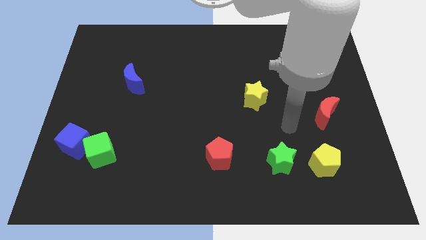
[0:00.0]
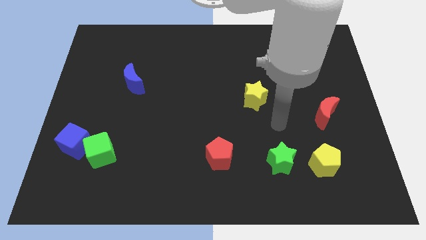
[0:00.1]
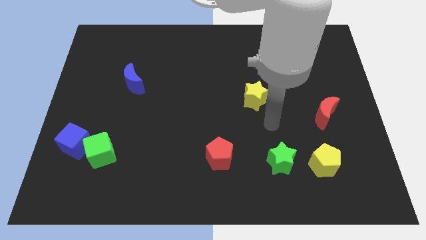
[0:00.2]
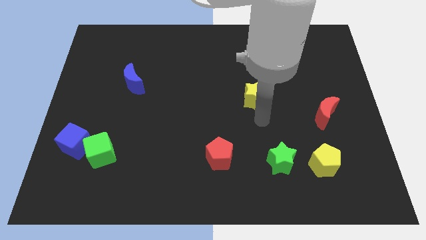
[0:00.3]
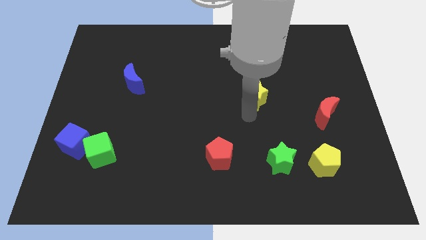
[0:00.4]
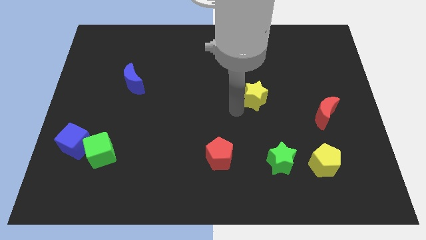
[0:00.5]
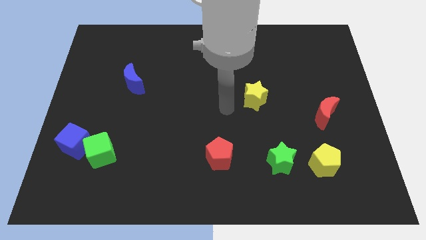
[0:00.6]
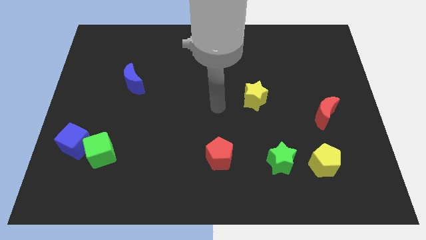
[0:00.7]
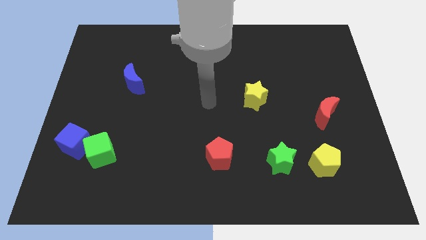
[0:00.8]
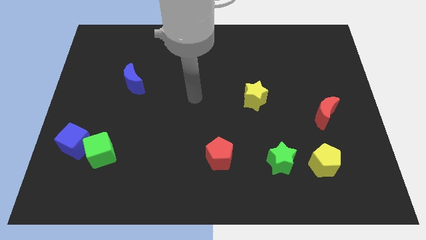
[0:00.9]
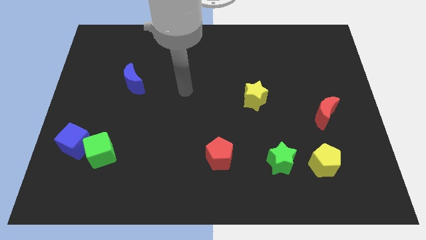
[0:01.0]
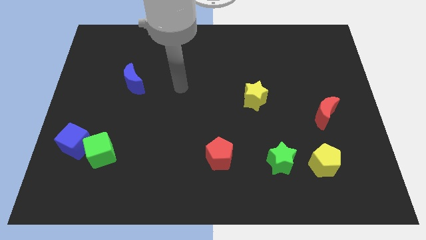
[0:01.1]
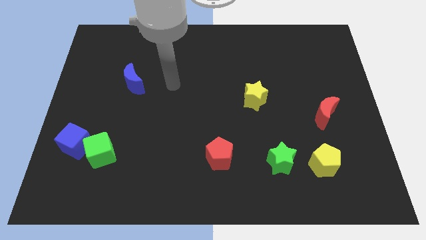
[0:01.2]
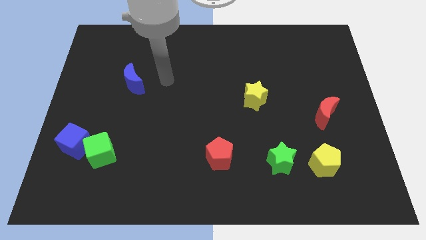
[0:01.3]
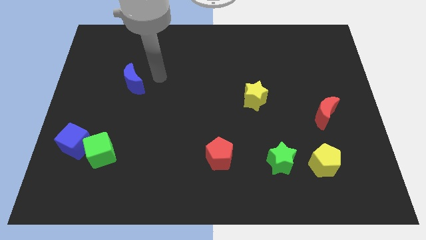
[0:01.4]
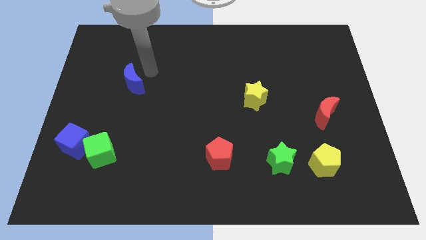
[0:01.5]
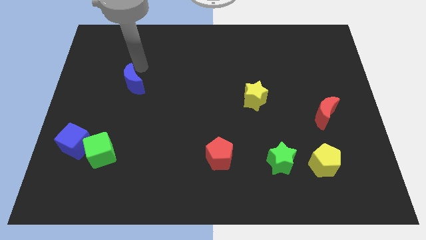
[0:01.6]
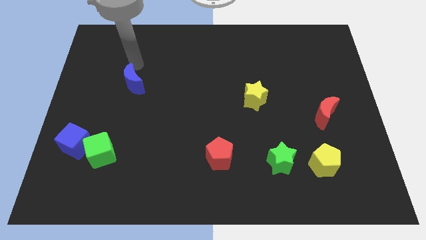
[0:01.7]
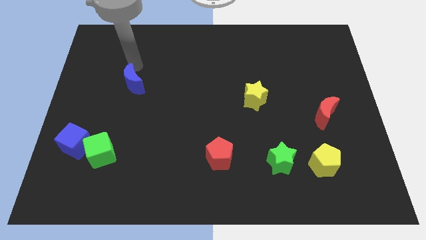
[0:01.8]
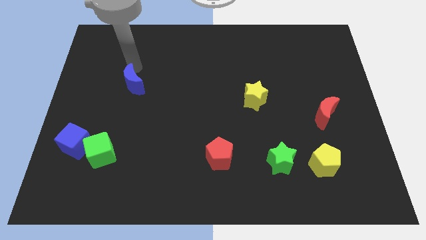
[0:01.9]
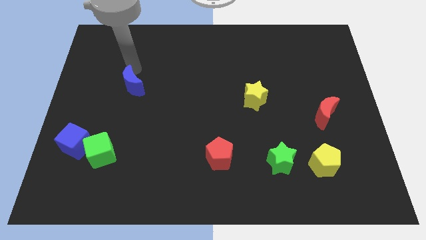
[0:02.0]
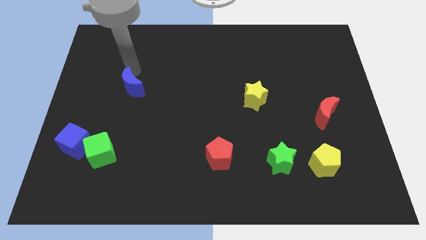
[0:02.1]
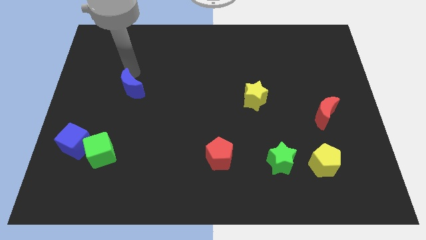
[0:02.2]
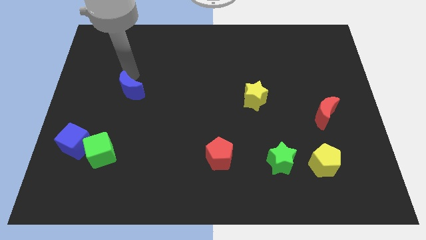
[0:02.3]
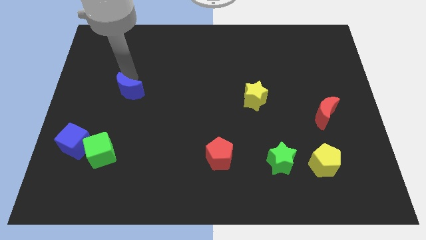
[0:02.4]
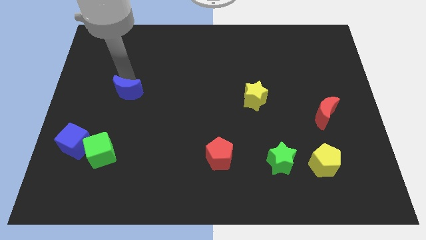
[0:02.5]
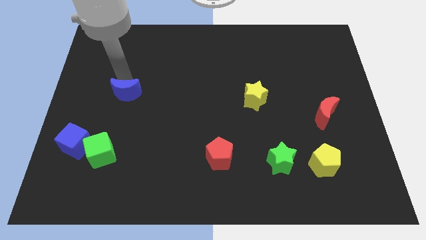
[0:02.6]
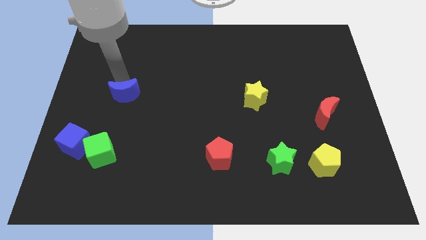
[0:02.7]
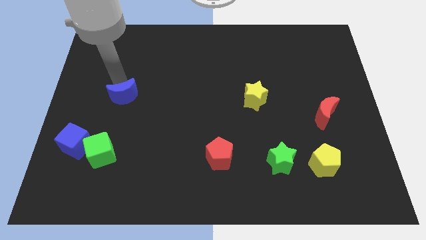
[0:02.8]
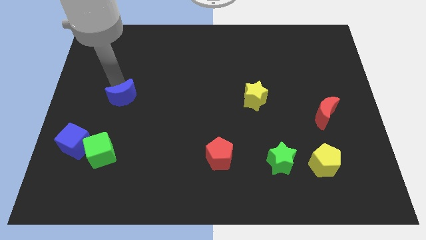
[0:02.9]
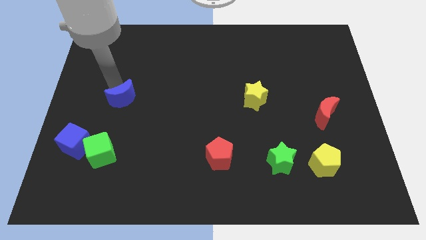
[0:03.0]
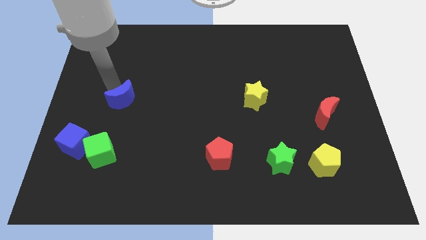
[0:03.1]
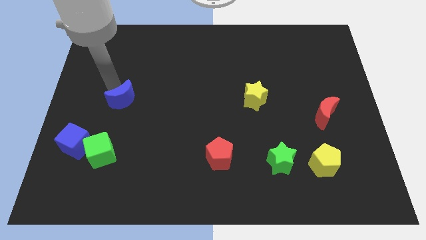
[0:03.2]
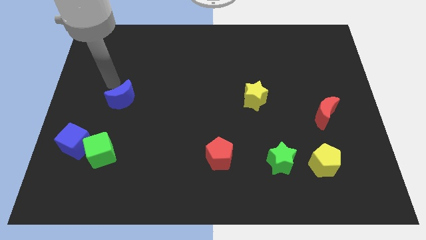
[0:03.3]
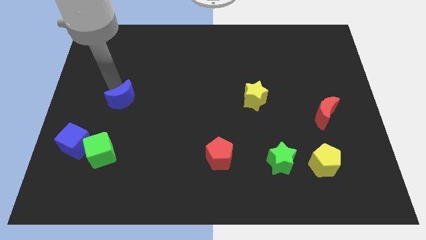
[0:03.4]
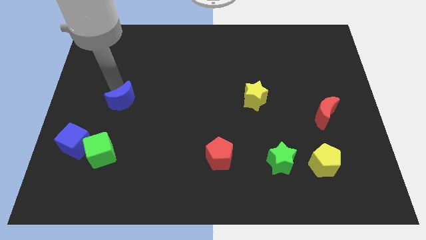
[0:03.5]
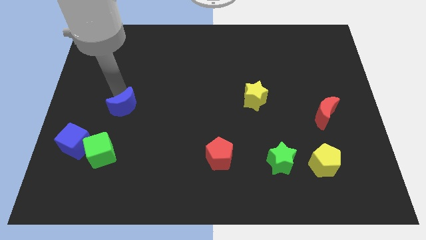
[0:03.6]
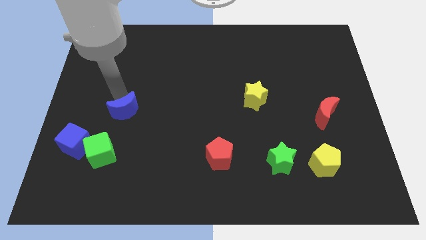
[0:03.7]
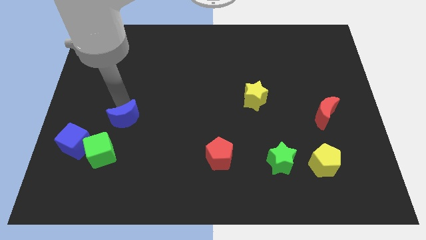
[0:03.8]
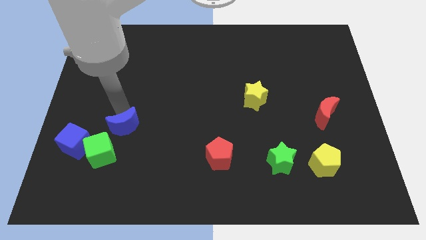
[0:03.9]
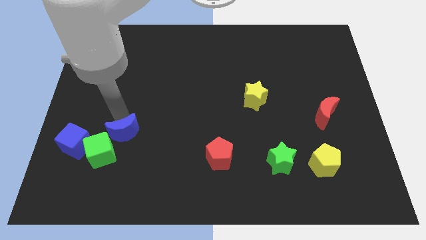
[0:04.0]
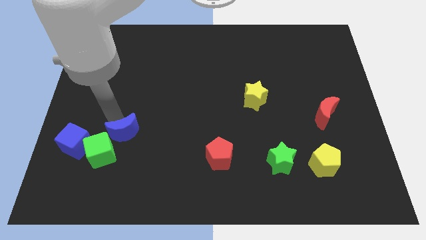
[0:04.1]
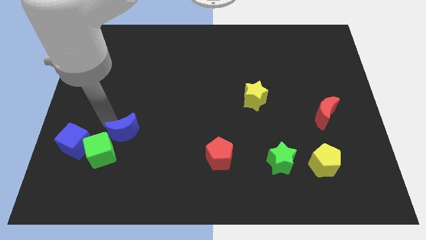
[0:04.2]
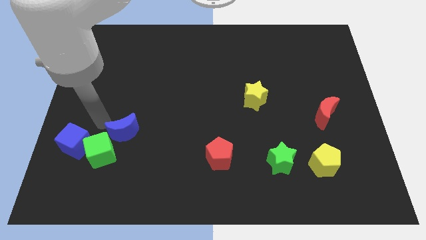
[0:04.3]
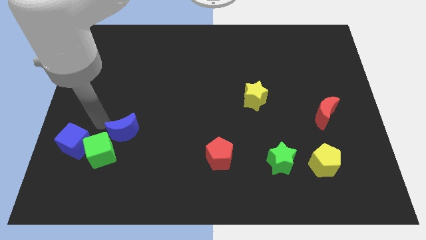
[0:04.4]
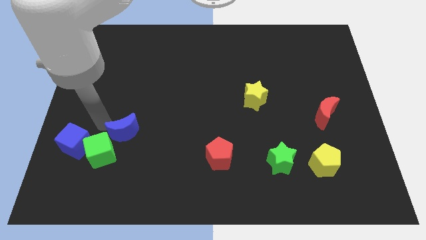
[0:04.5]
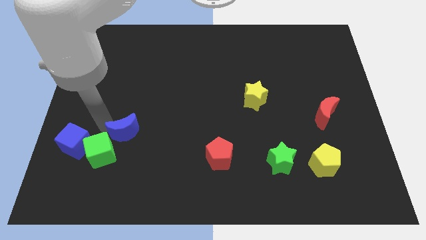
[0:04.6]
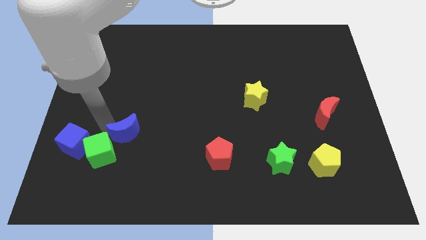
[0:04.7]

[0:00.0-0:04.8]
put the blue moon just right of the green cube

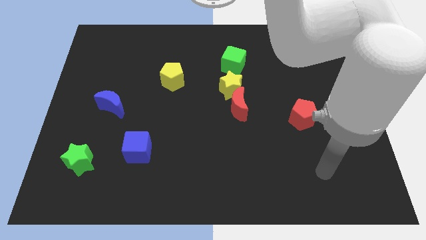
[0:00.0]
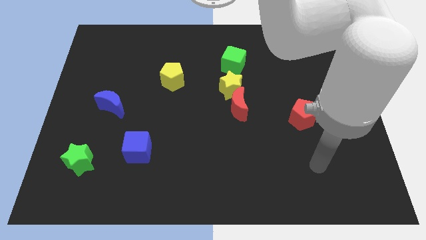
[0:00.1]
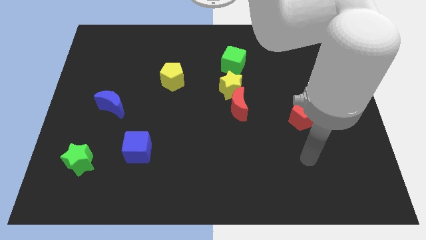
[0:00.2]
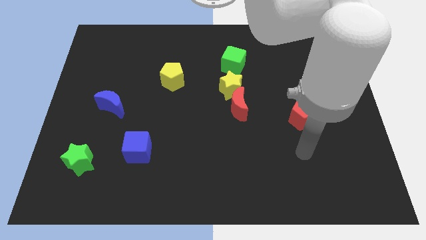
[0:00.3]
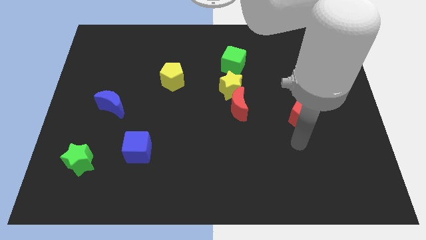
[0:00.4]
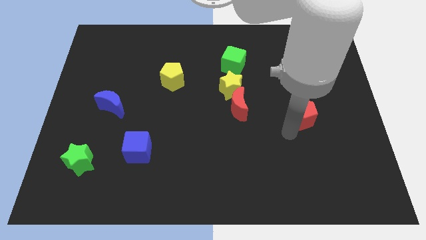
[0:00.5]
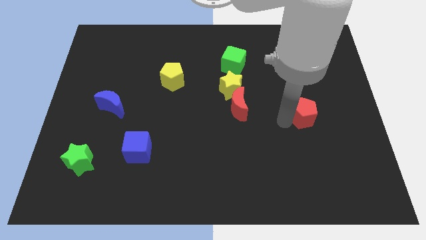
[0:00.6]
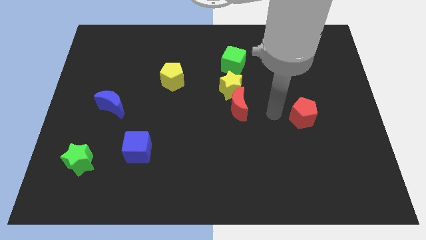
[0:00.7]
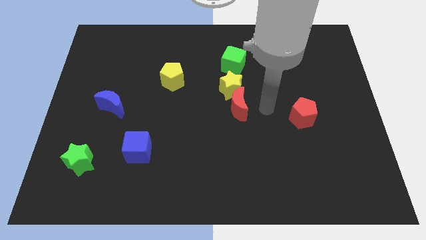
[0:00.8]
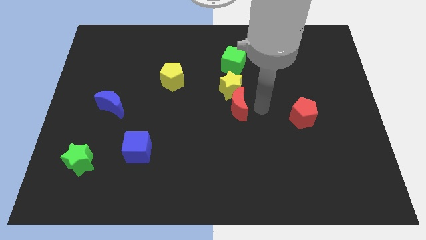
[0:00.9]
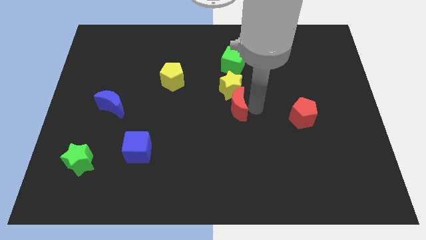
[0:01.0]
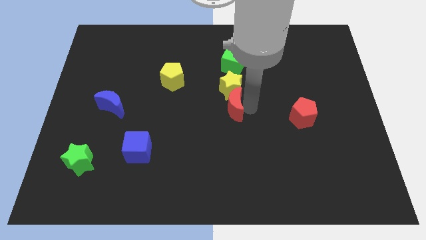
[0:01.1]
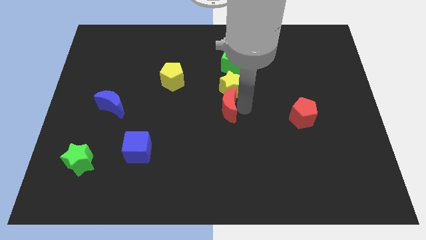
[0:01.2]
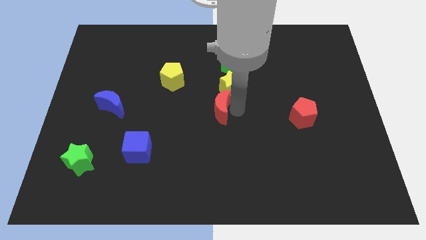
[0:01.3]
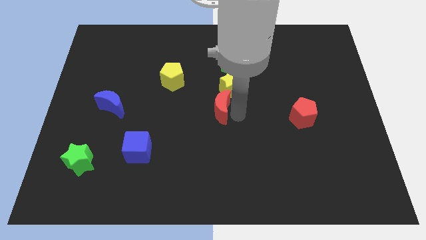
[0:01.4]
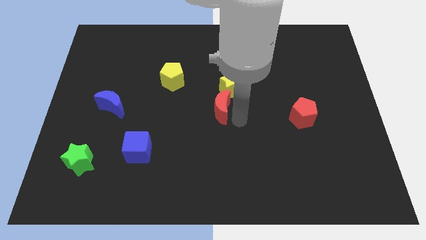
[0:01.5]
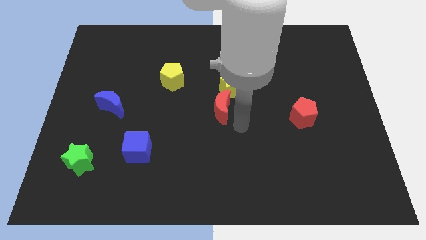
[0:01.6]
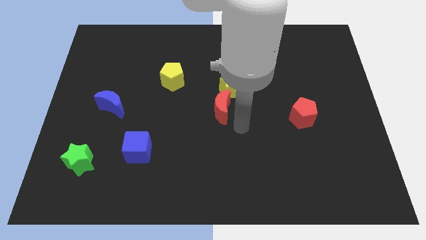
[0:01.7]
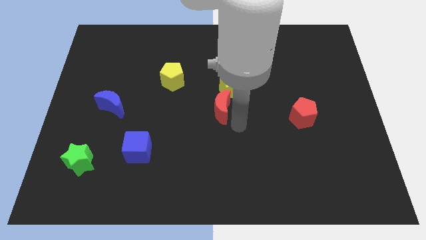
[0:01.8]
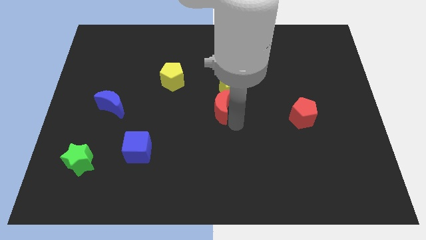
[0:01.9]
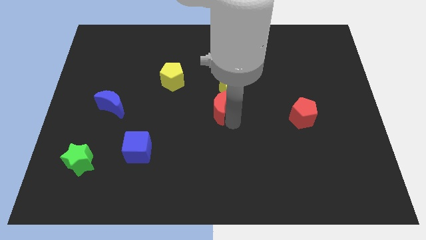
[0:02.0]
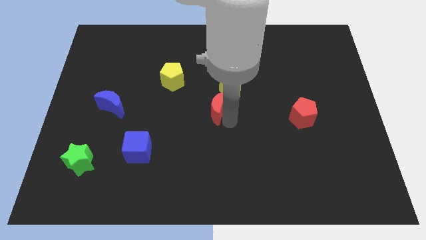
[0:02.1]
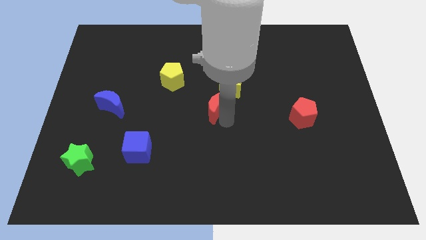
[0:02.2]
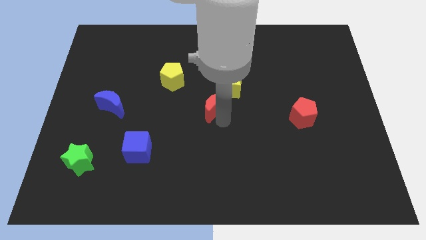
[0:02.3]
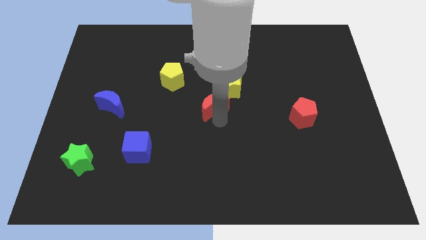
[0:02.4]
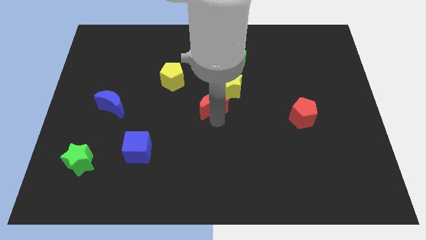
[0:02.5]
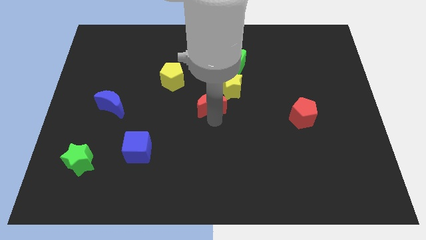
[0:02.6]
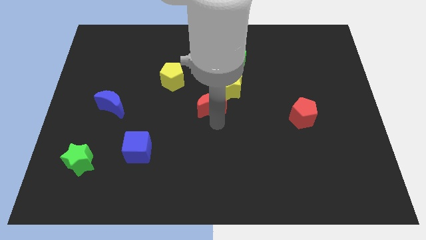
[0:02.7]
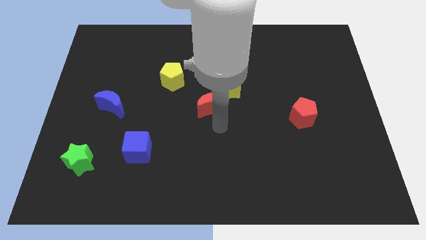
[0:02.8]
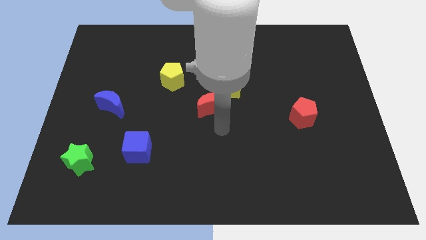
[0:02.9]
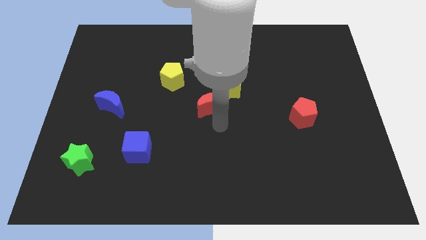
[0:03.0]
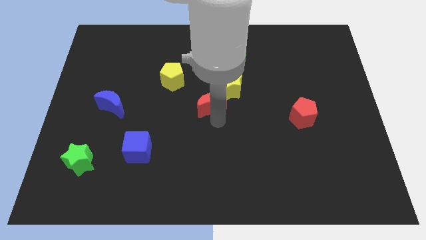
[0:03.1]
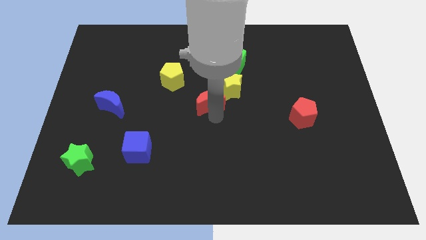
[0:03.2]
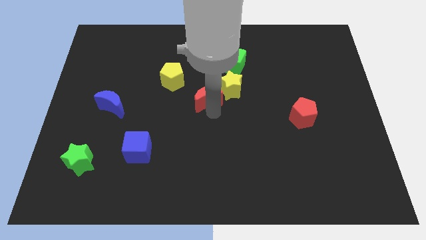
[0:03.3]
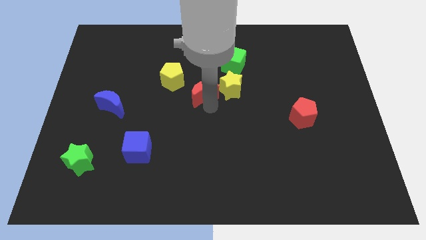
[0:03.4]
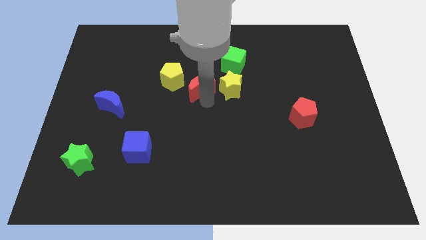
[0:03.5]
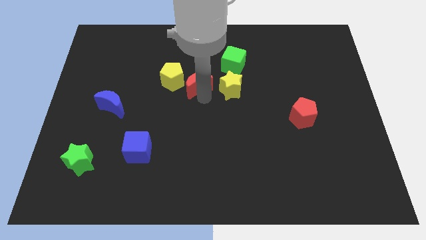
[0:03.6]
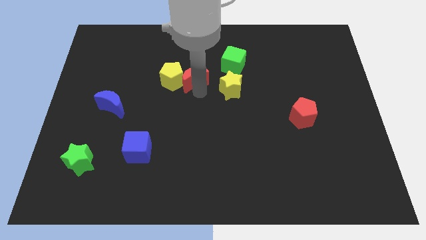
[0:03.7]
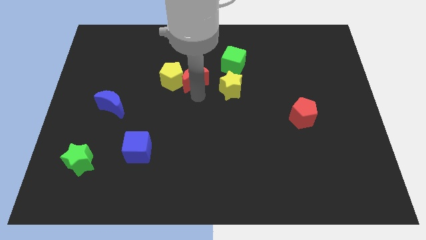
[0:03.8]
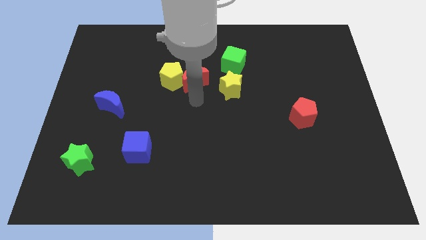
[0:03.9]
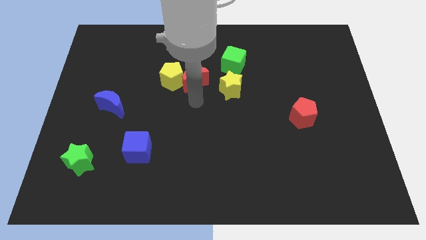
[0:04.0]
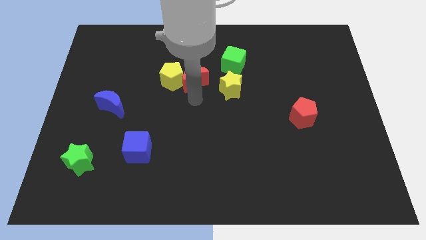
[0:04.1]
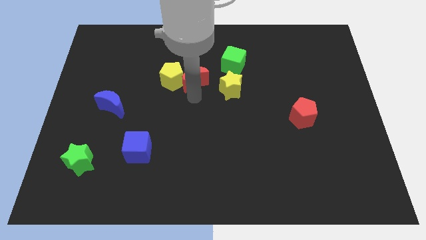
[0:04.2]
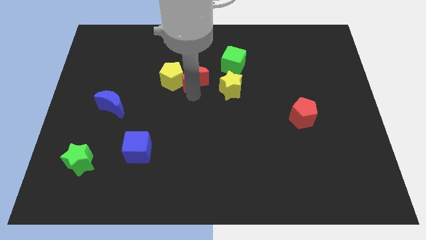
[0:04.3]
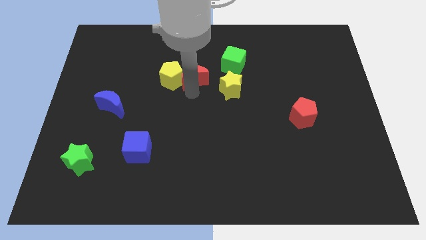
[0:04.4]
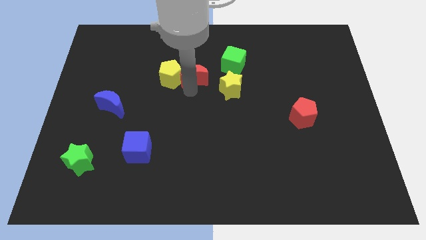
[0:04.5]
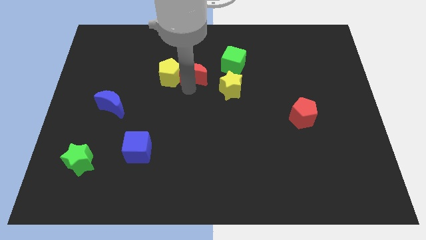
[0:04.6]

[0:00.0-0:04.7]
slide the red moon just left of the green cube
